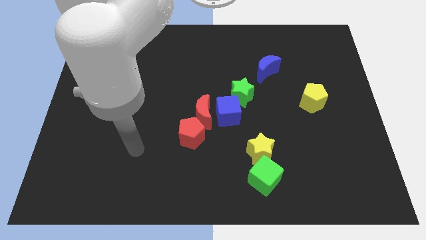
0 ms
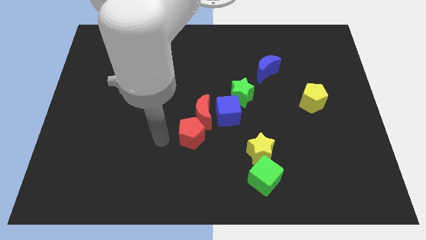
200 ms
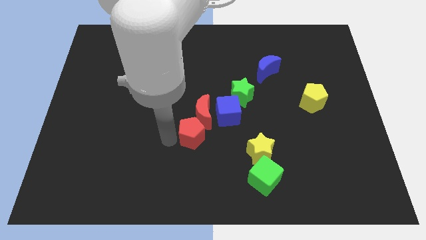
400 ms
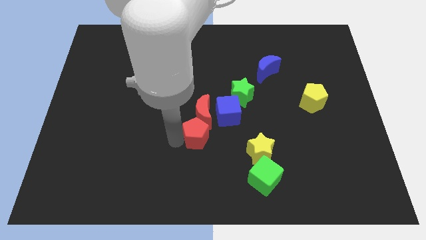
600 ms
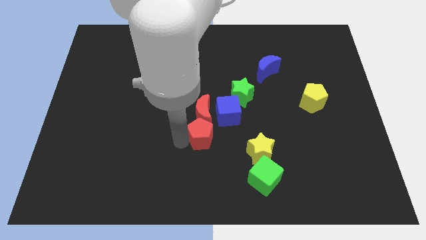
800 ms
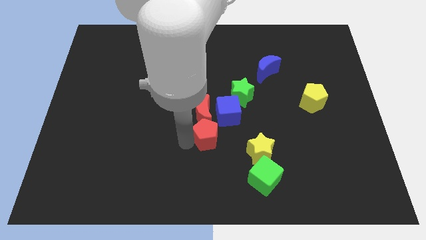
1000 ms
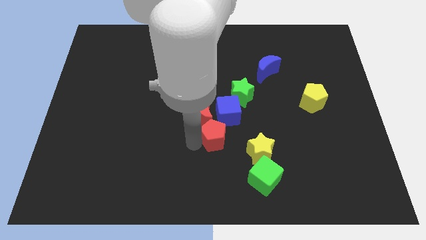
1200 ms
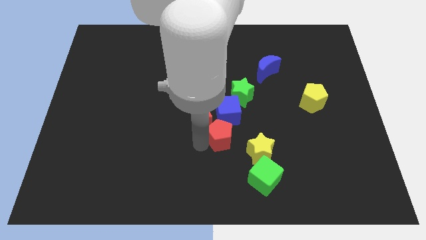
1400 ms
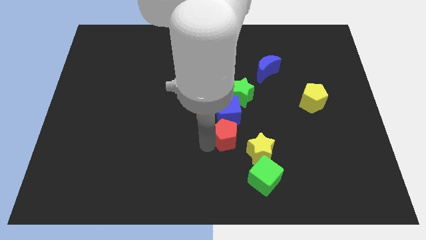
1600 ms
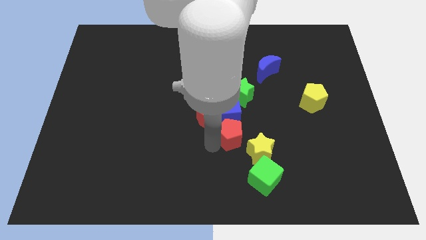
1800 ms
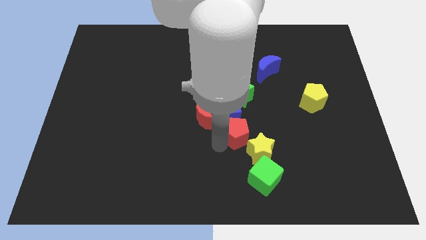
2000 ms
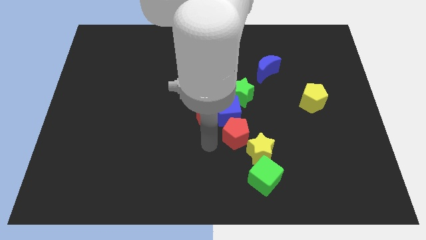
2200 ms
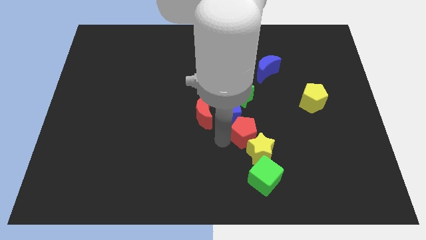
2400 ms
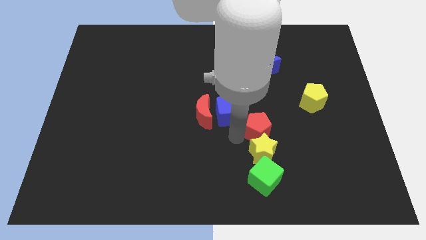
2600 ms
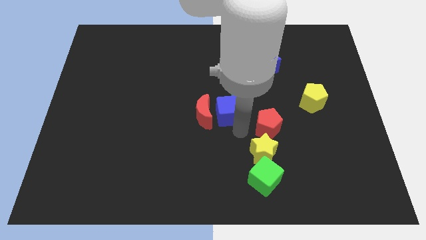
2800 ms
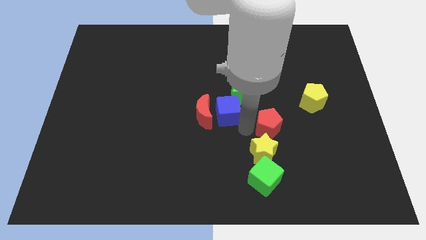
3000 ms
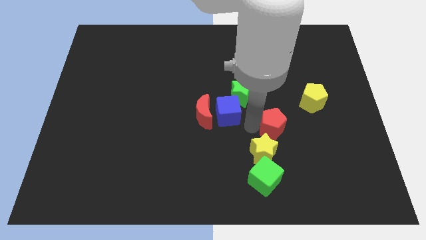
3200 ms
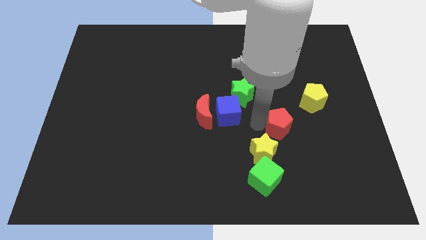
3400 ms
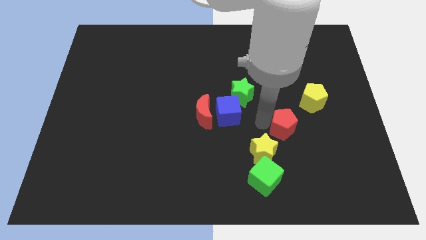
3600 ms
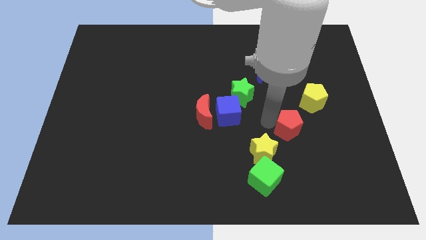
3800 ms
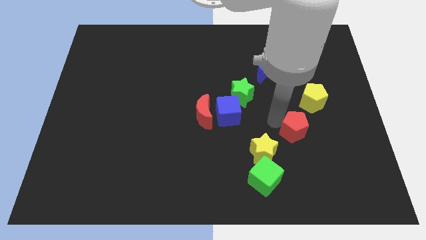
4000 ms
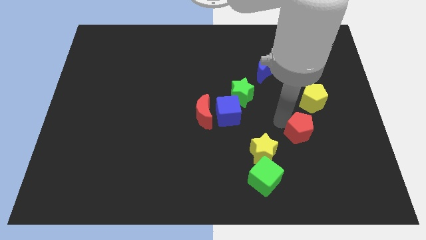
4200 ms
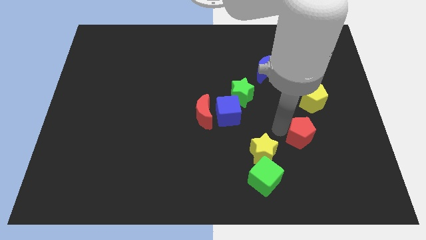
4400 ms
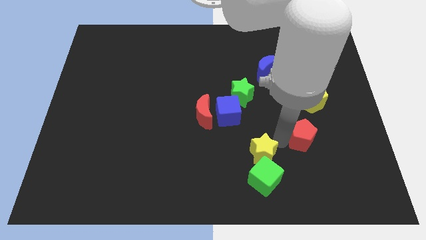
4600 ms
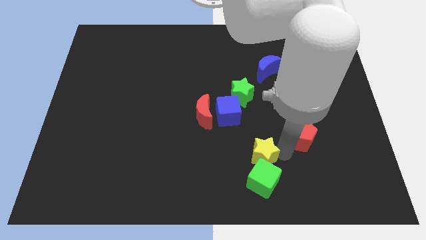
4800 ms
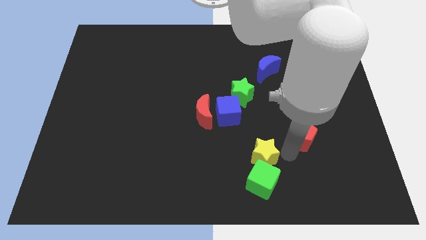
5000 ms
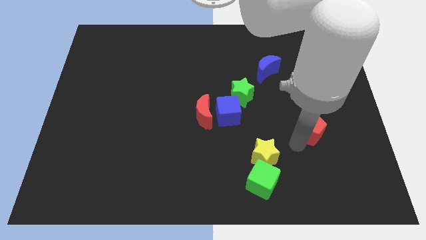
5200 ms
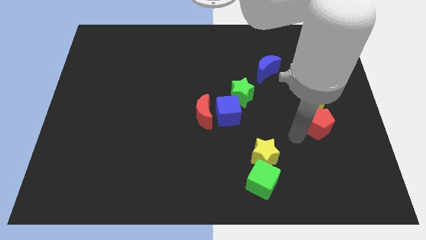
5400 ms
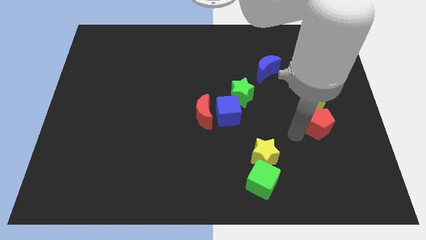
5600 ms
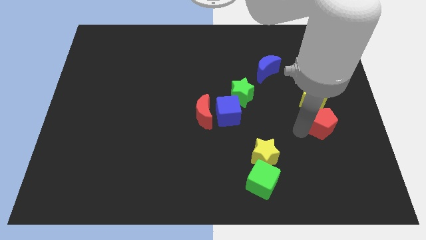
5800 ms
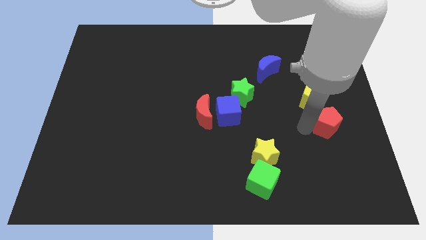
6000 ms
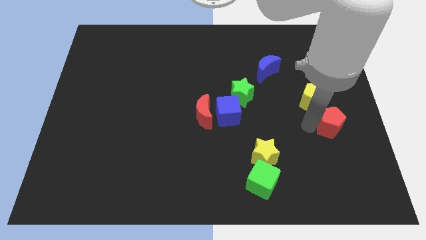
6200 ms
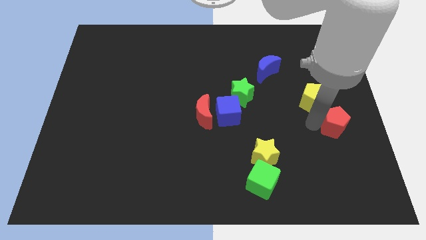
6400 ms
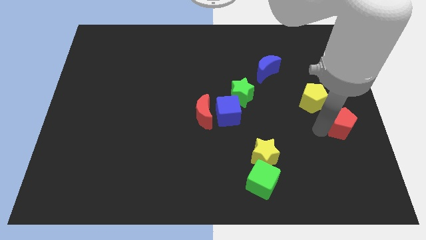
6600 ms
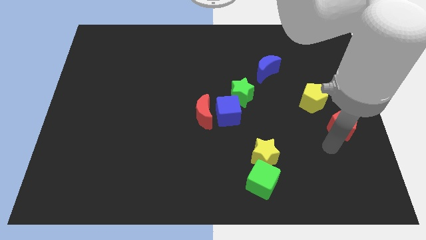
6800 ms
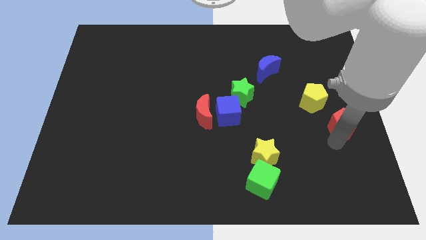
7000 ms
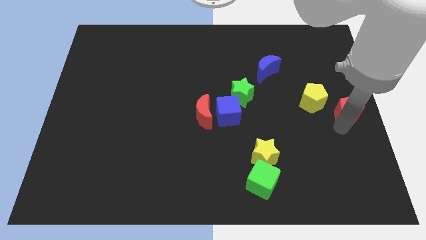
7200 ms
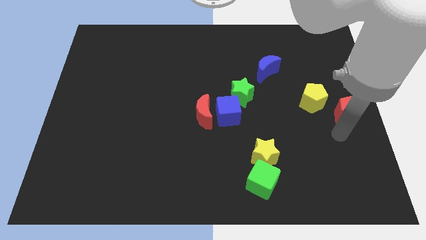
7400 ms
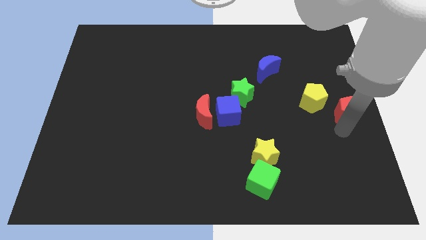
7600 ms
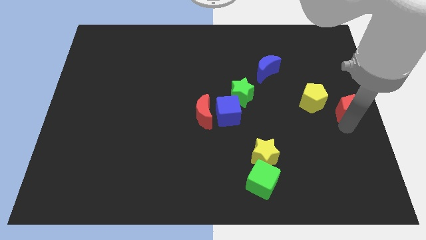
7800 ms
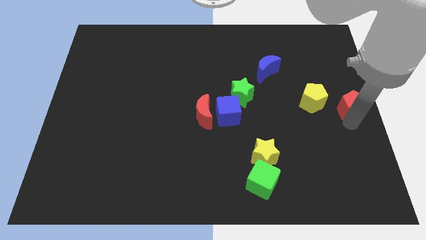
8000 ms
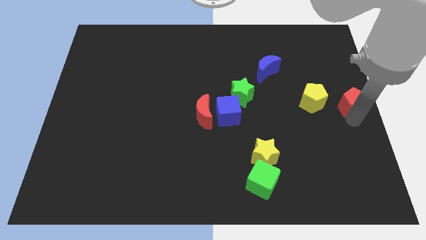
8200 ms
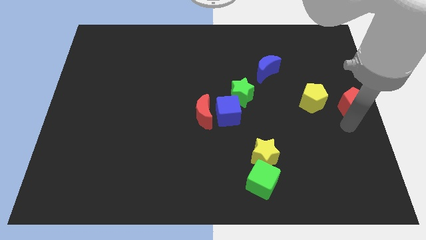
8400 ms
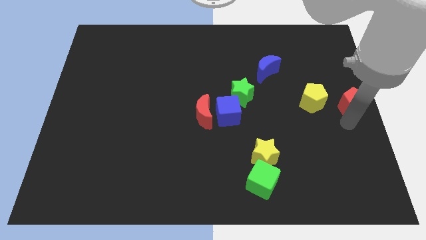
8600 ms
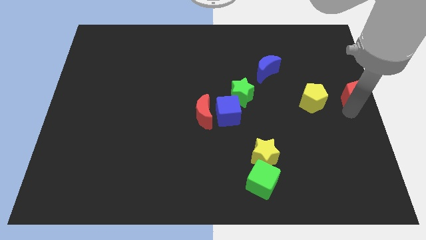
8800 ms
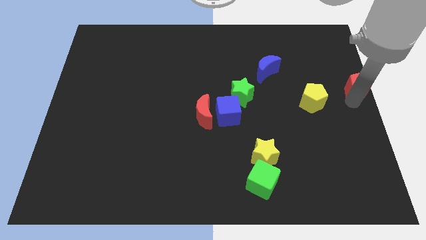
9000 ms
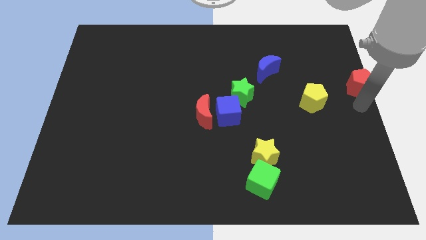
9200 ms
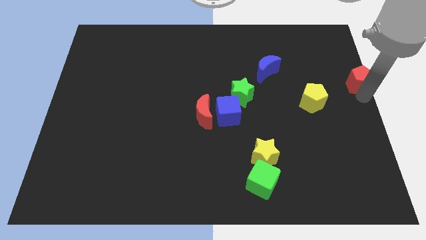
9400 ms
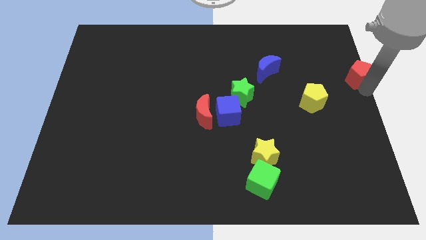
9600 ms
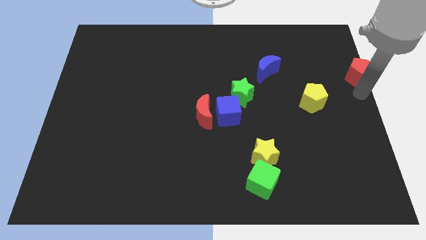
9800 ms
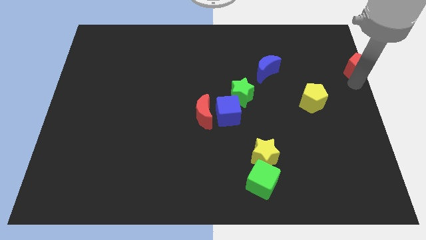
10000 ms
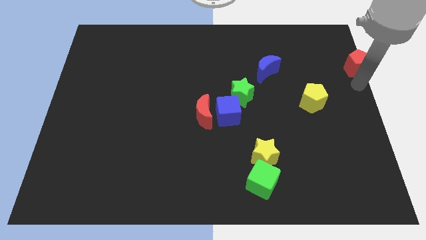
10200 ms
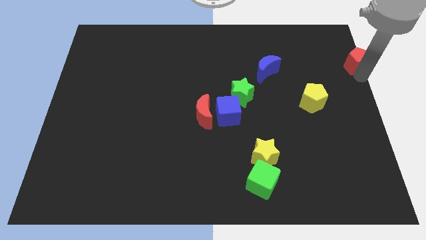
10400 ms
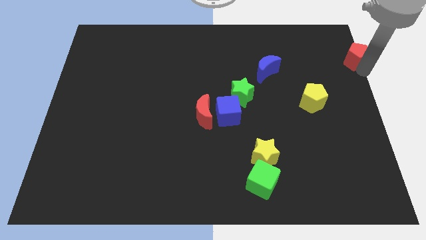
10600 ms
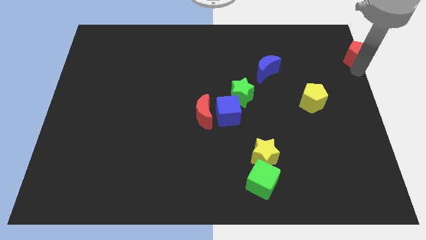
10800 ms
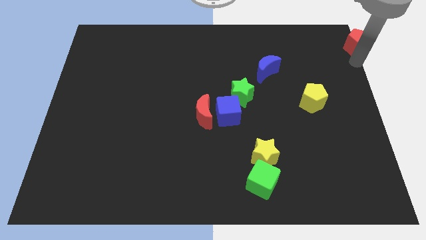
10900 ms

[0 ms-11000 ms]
push the red pentagon to the top right corner

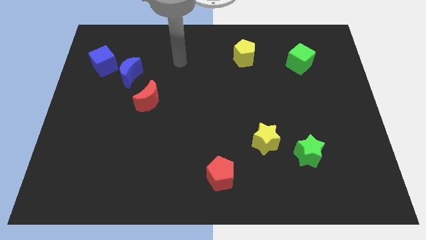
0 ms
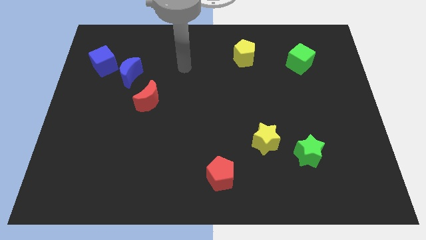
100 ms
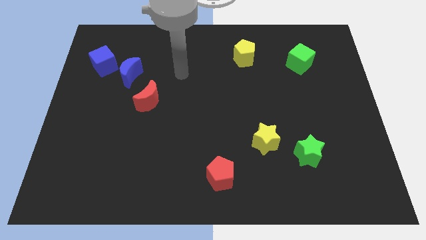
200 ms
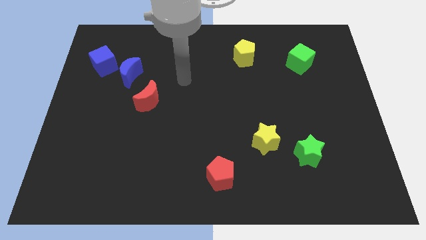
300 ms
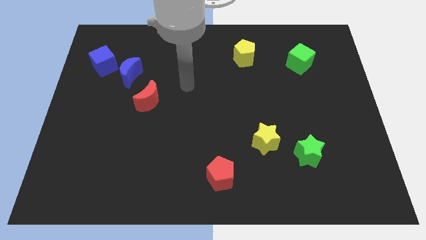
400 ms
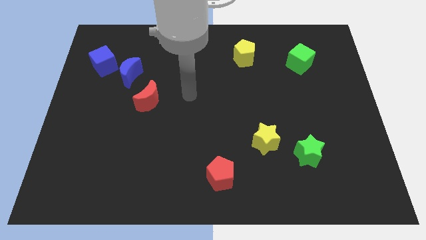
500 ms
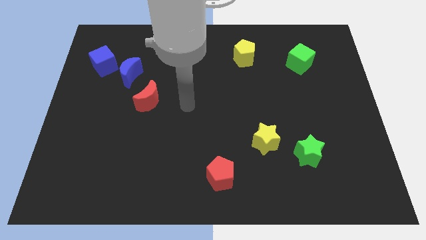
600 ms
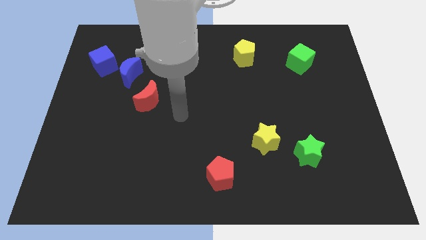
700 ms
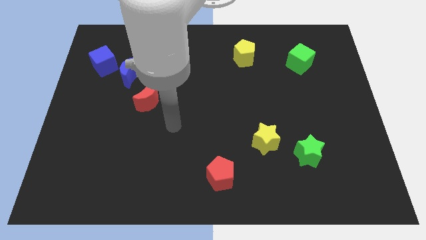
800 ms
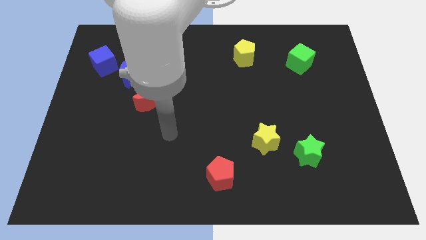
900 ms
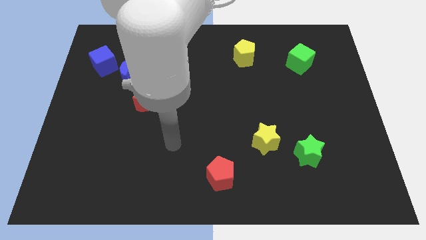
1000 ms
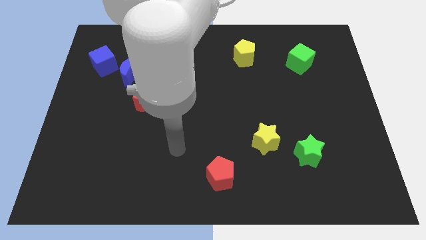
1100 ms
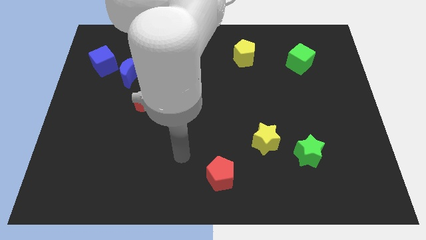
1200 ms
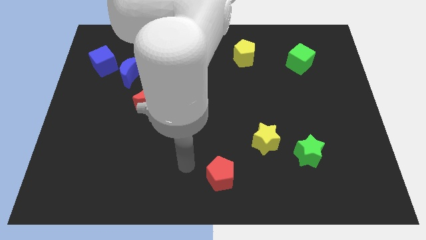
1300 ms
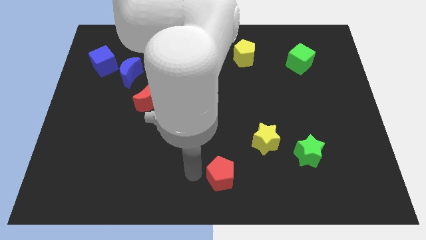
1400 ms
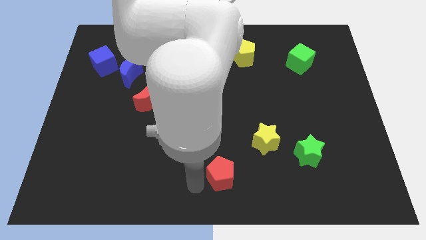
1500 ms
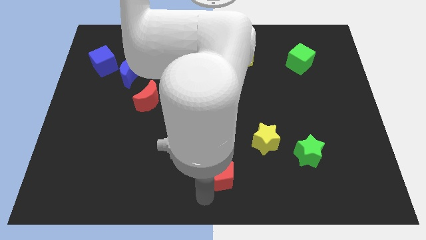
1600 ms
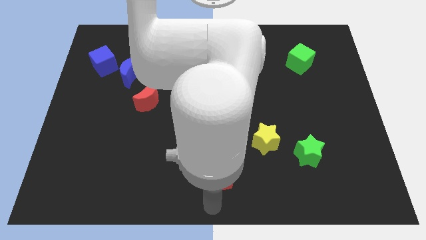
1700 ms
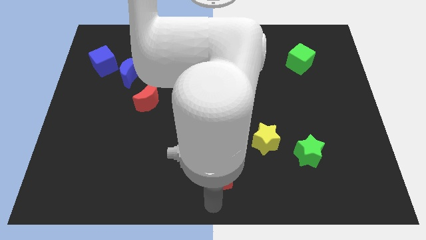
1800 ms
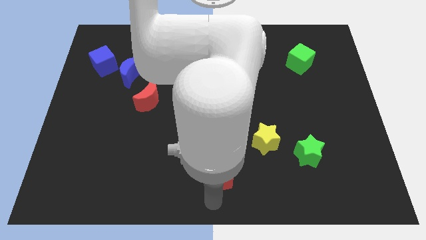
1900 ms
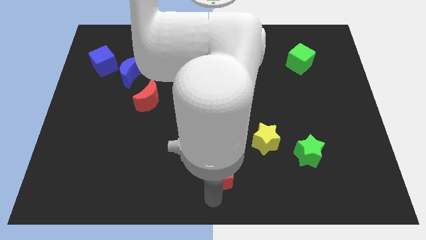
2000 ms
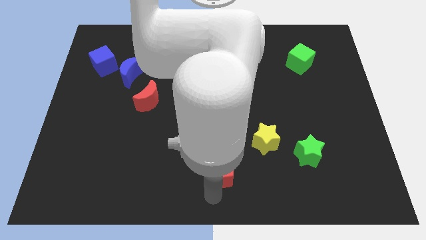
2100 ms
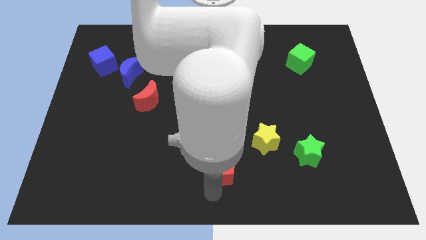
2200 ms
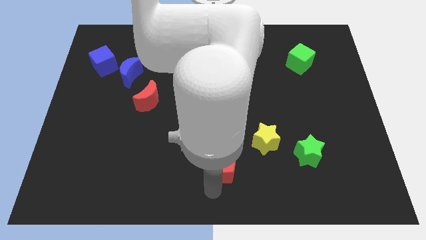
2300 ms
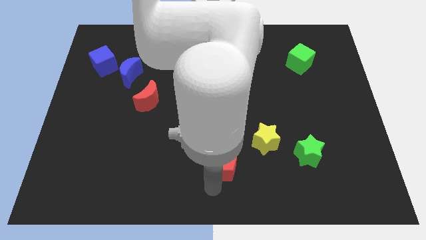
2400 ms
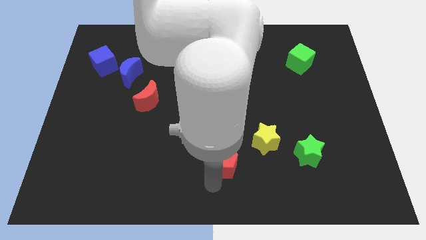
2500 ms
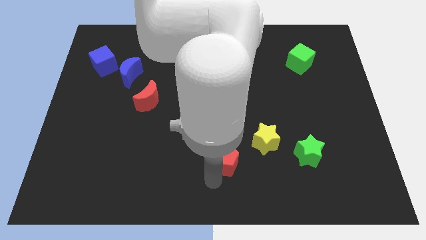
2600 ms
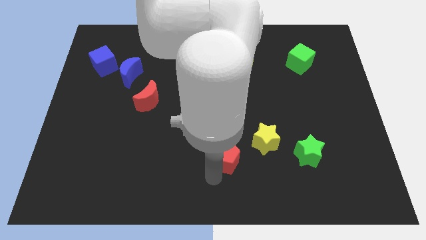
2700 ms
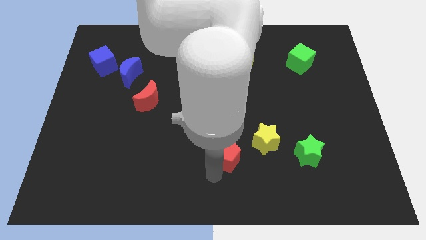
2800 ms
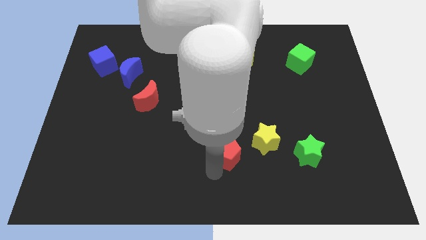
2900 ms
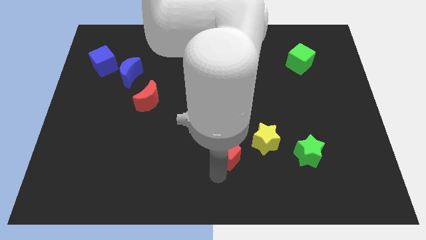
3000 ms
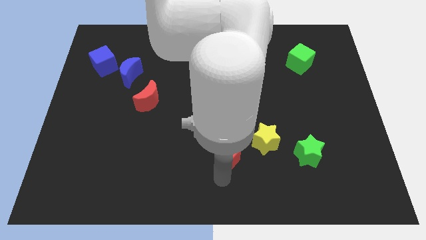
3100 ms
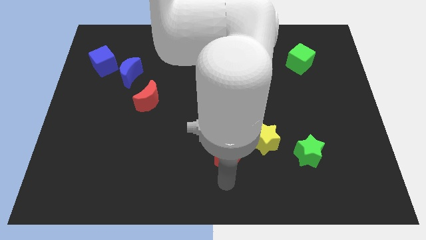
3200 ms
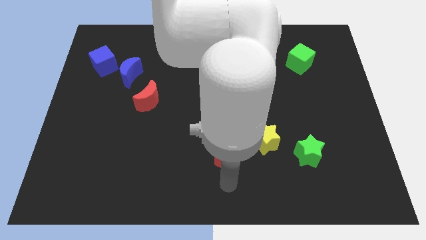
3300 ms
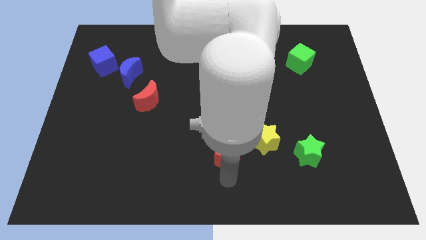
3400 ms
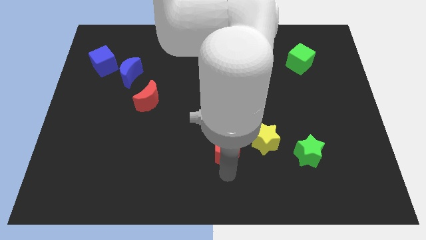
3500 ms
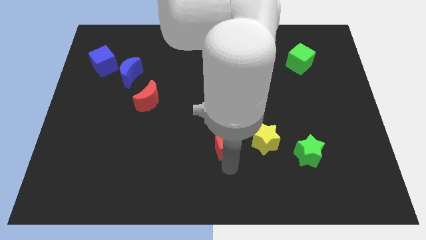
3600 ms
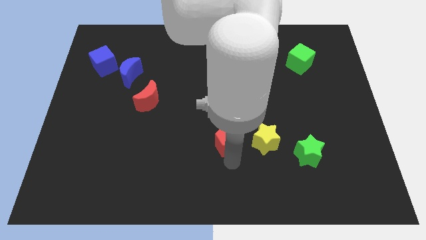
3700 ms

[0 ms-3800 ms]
put the red pentagon to the center
